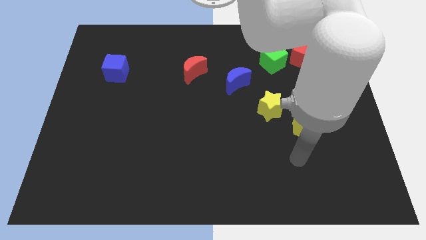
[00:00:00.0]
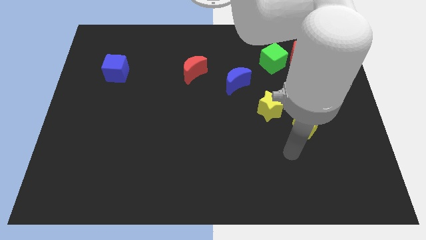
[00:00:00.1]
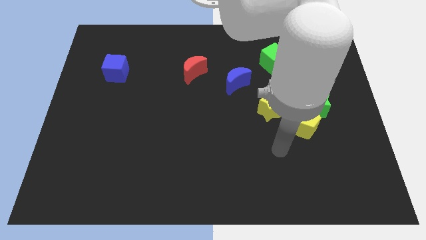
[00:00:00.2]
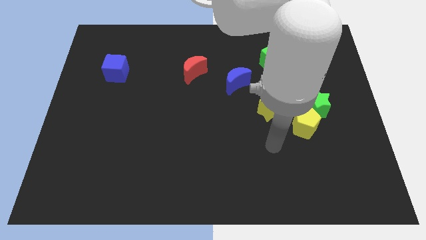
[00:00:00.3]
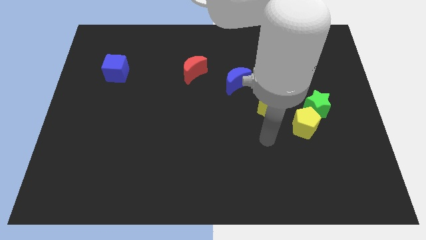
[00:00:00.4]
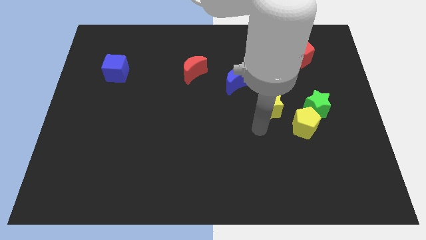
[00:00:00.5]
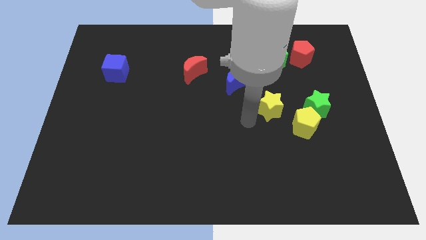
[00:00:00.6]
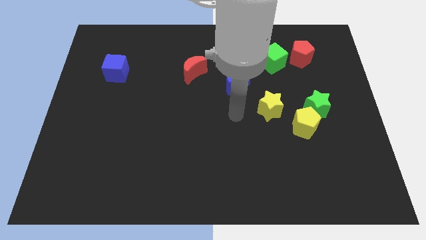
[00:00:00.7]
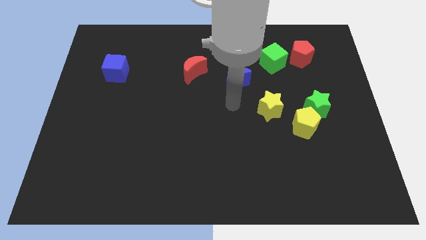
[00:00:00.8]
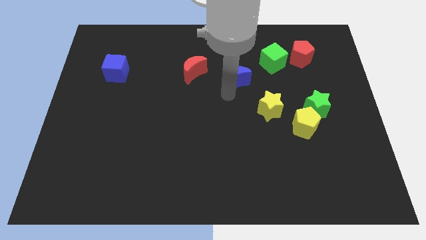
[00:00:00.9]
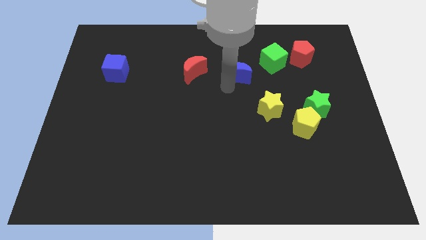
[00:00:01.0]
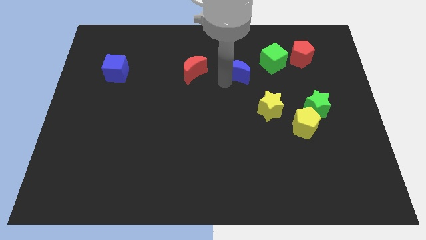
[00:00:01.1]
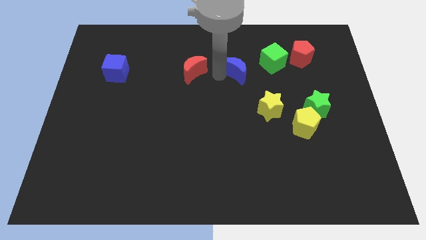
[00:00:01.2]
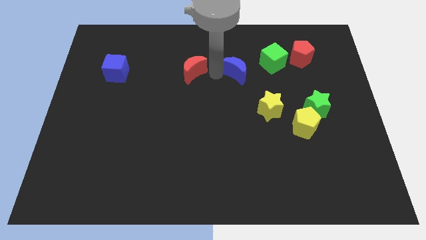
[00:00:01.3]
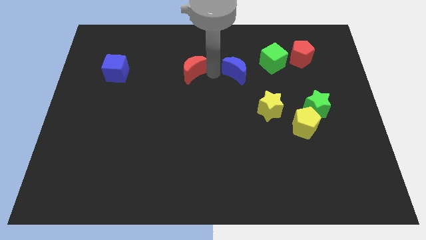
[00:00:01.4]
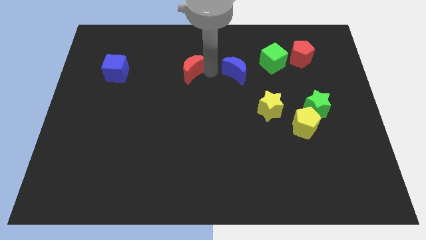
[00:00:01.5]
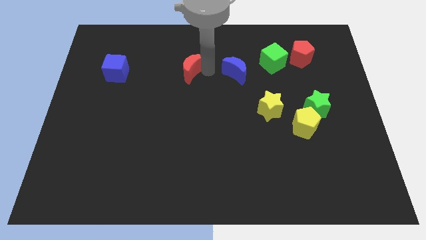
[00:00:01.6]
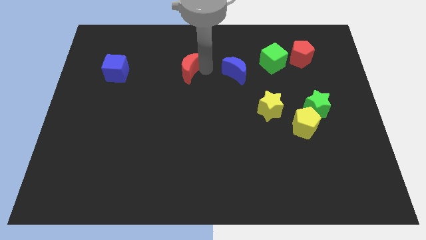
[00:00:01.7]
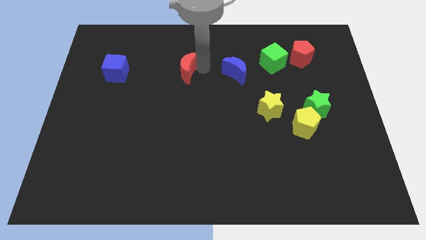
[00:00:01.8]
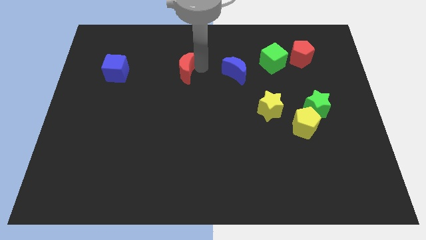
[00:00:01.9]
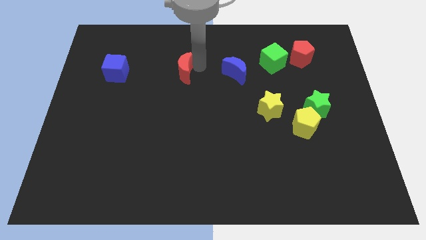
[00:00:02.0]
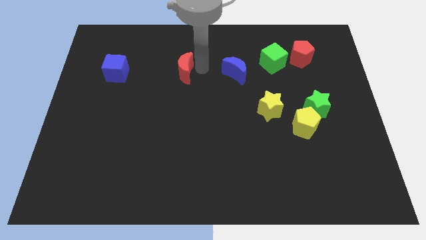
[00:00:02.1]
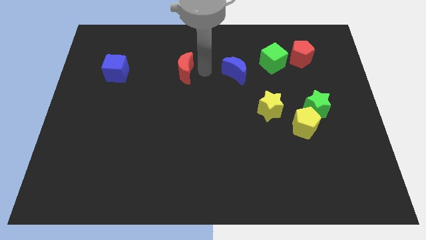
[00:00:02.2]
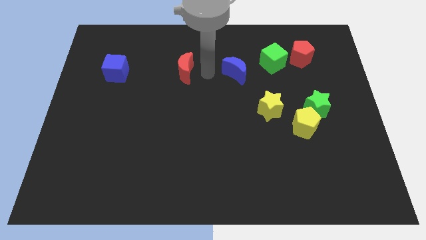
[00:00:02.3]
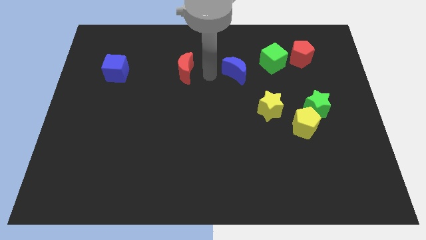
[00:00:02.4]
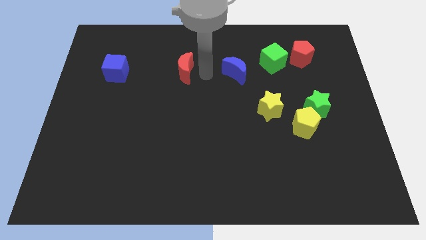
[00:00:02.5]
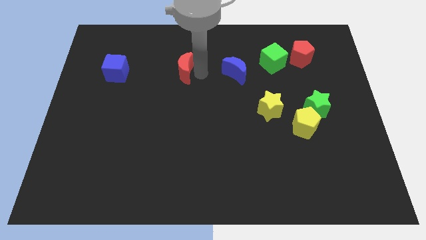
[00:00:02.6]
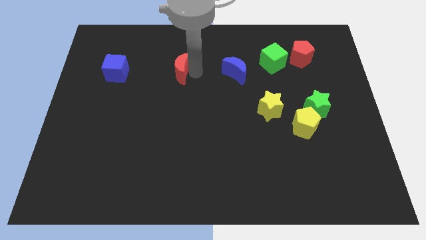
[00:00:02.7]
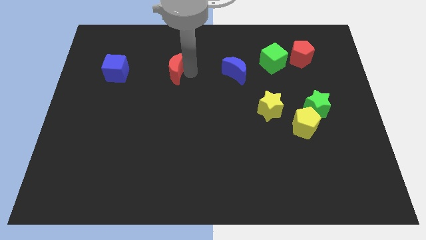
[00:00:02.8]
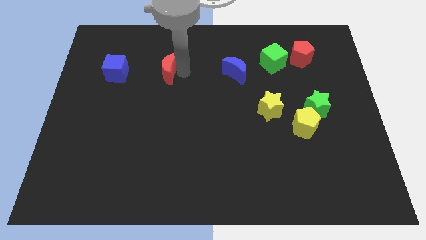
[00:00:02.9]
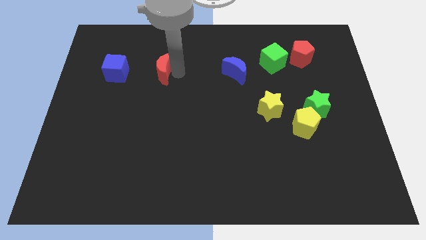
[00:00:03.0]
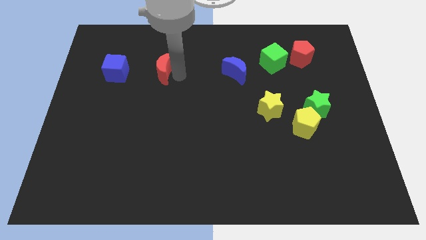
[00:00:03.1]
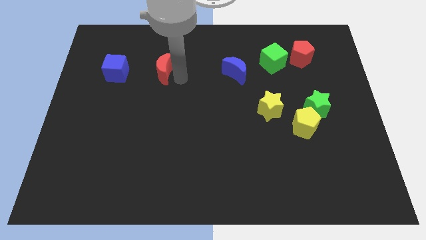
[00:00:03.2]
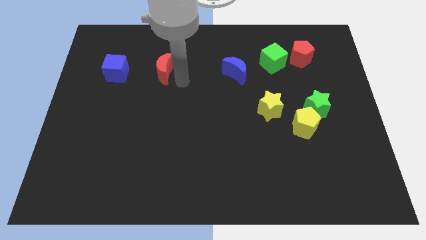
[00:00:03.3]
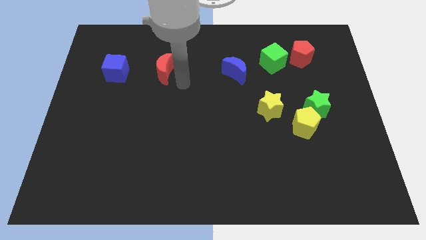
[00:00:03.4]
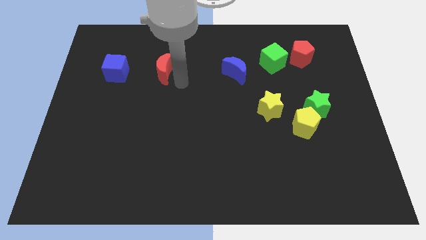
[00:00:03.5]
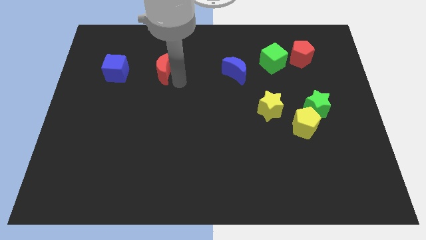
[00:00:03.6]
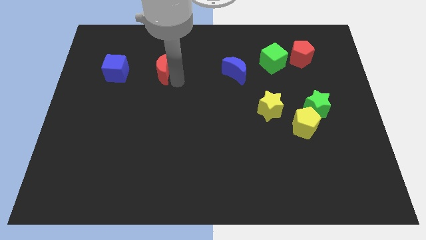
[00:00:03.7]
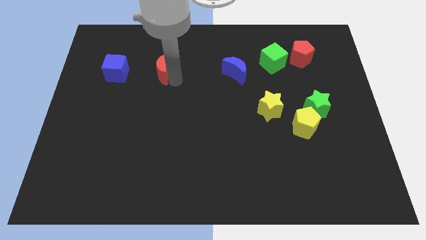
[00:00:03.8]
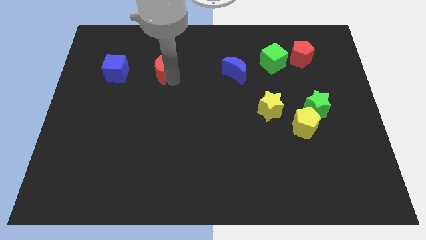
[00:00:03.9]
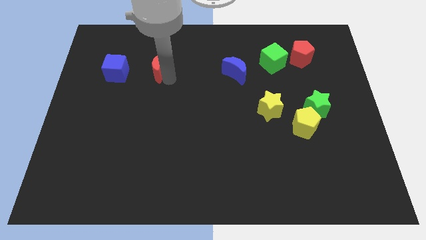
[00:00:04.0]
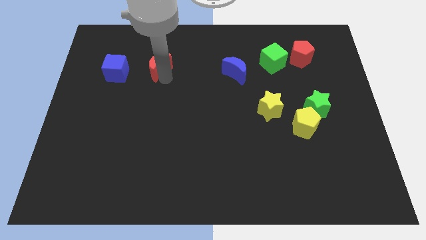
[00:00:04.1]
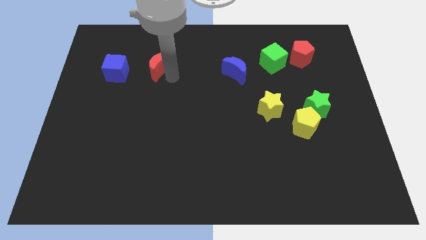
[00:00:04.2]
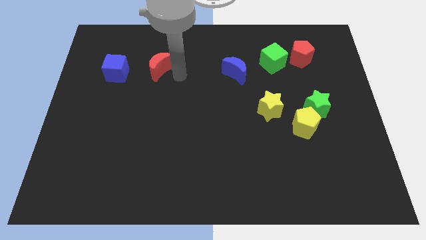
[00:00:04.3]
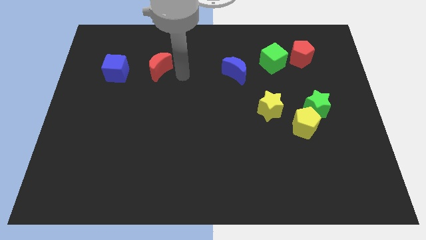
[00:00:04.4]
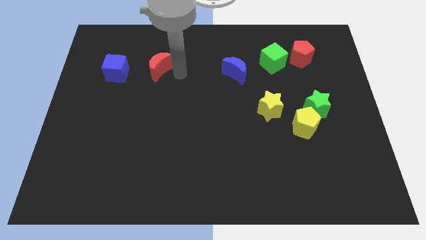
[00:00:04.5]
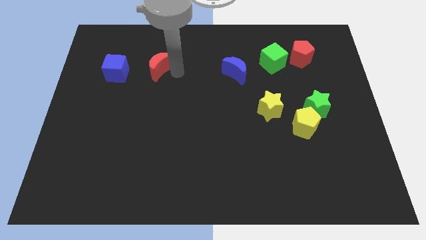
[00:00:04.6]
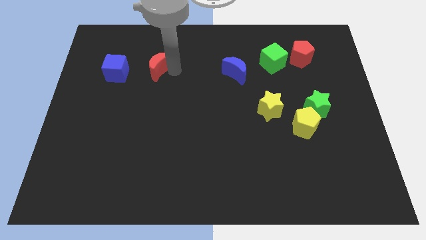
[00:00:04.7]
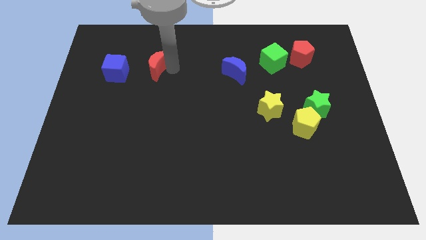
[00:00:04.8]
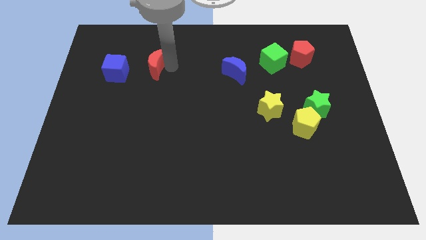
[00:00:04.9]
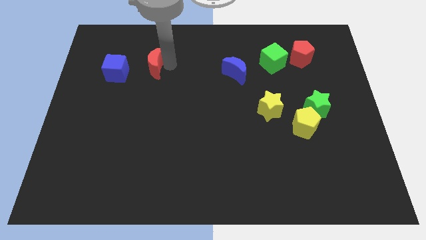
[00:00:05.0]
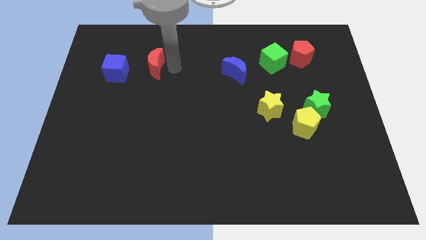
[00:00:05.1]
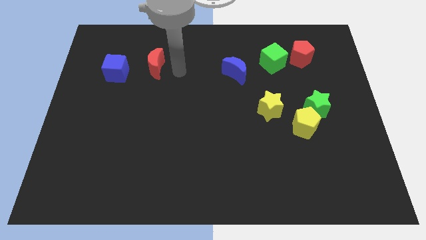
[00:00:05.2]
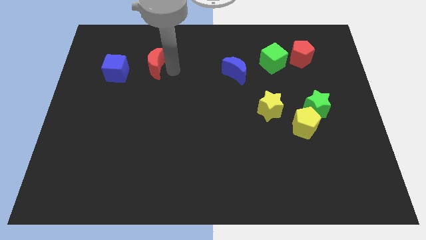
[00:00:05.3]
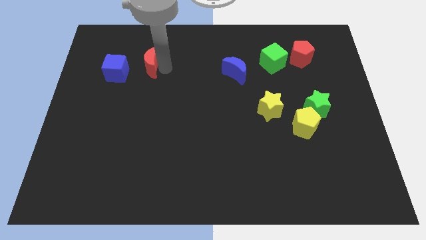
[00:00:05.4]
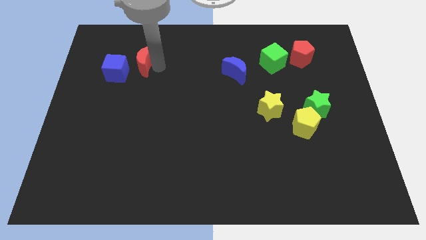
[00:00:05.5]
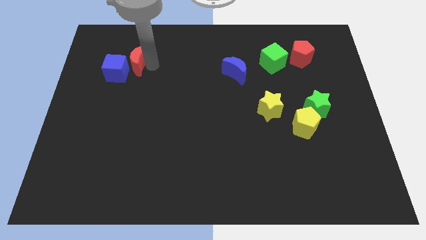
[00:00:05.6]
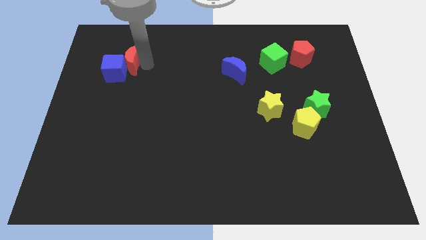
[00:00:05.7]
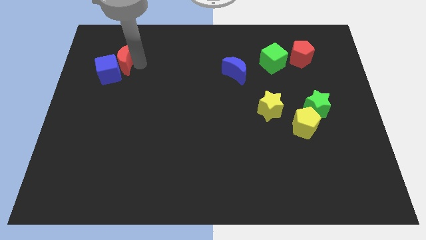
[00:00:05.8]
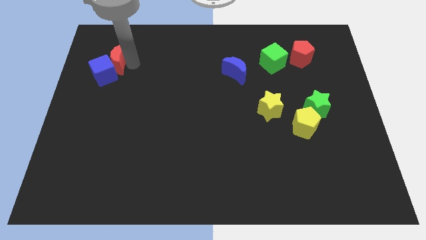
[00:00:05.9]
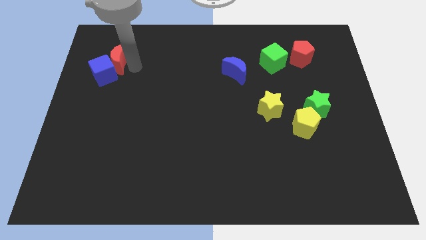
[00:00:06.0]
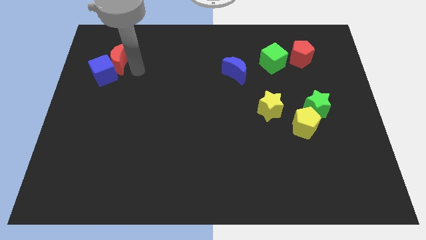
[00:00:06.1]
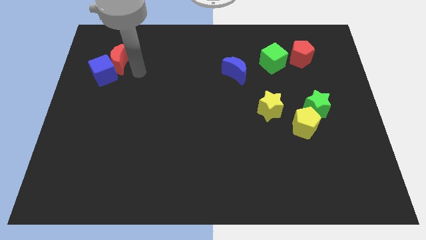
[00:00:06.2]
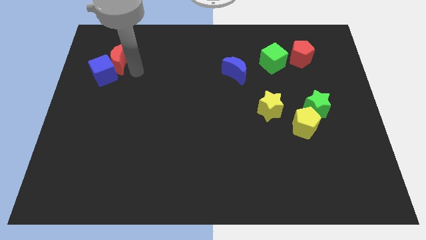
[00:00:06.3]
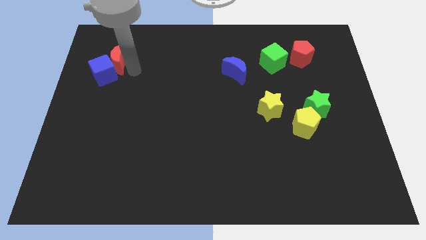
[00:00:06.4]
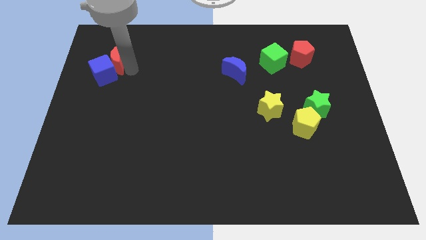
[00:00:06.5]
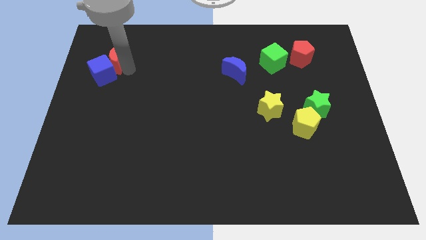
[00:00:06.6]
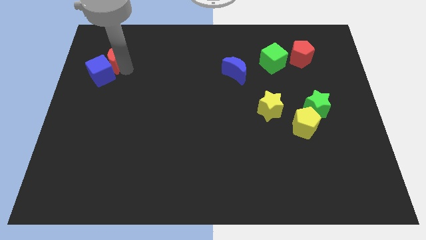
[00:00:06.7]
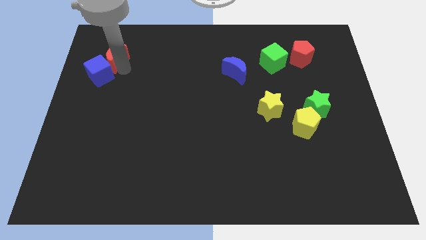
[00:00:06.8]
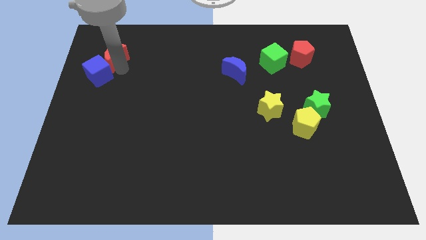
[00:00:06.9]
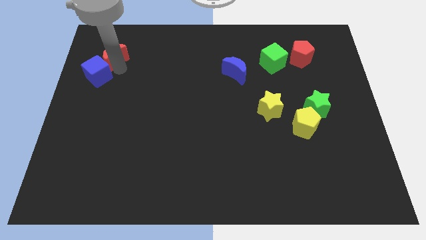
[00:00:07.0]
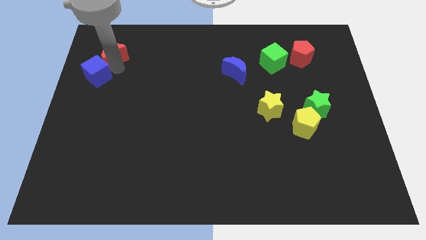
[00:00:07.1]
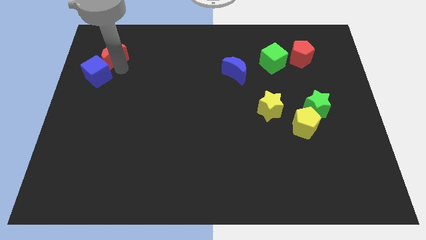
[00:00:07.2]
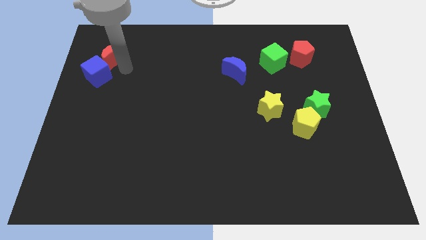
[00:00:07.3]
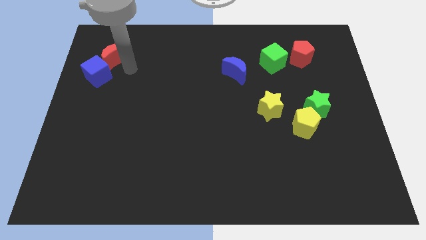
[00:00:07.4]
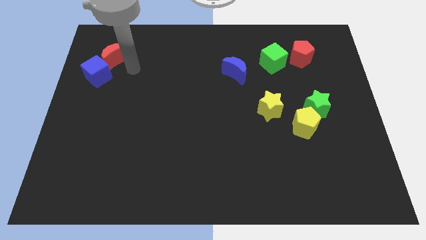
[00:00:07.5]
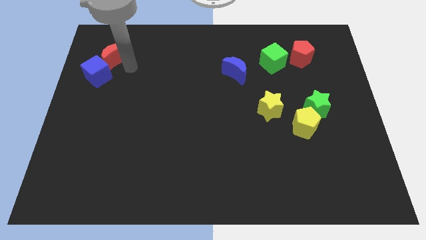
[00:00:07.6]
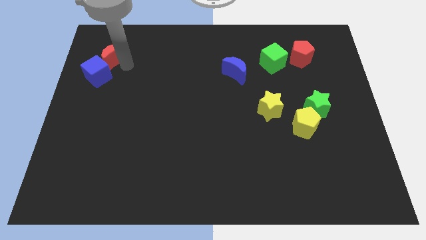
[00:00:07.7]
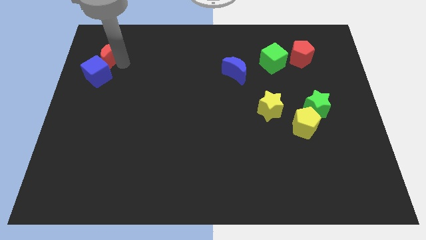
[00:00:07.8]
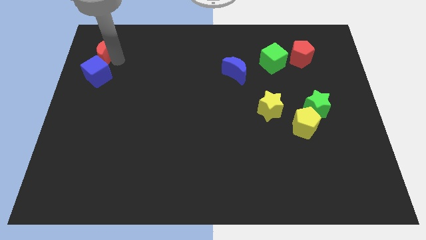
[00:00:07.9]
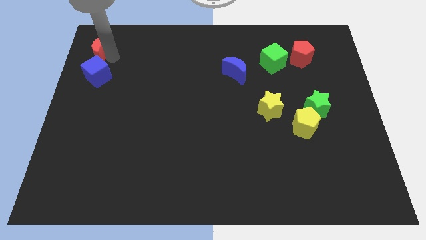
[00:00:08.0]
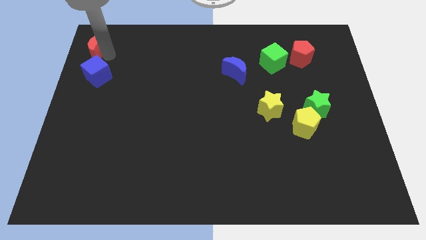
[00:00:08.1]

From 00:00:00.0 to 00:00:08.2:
push the red moon to the top left corner
